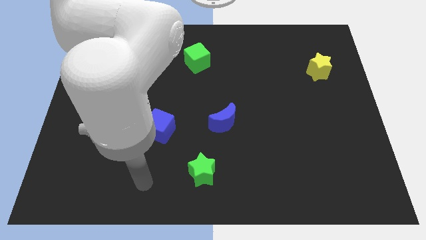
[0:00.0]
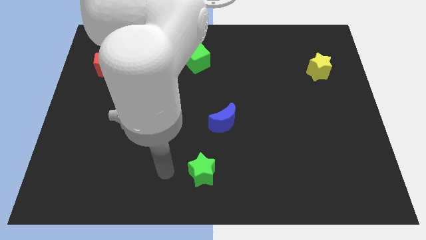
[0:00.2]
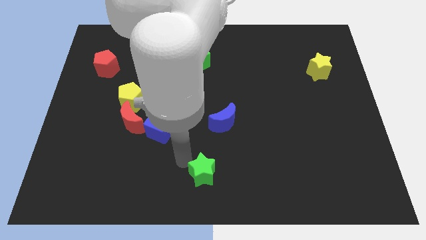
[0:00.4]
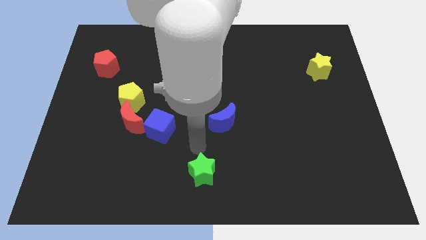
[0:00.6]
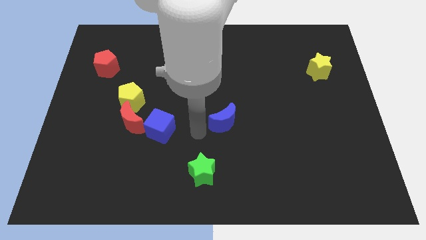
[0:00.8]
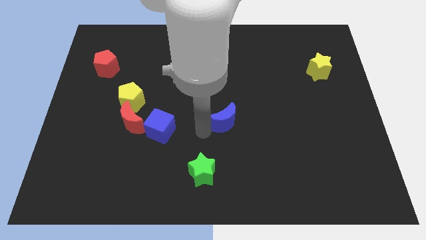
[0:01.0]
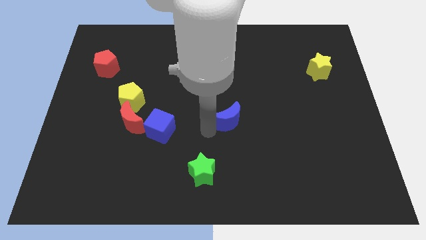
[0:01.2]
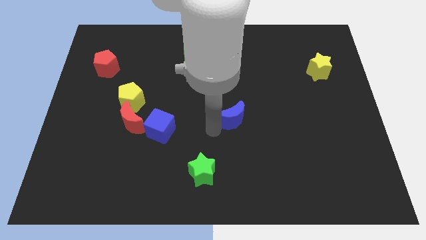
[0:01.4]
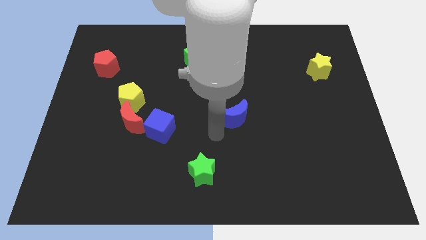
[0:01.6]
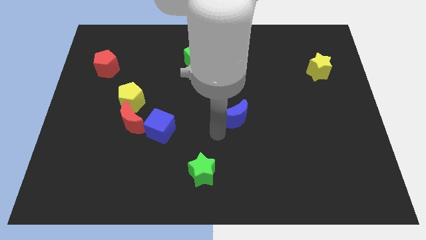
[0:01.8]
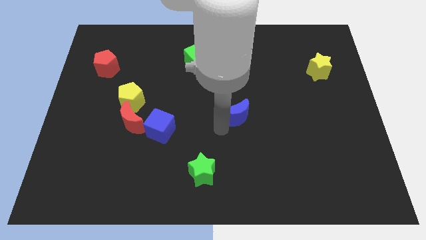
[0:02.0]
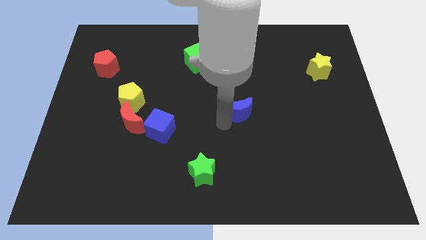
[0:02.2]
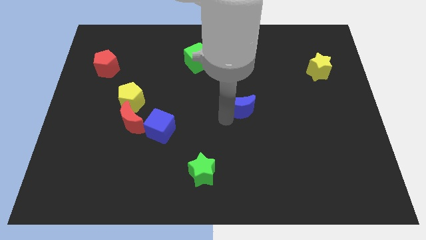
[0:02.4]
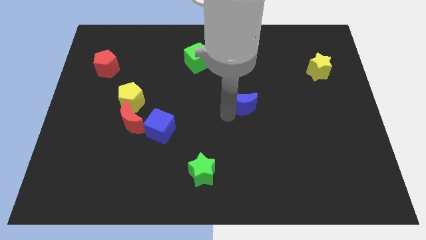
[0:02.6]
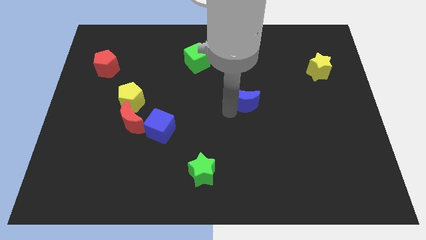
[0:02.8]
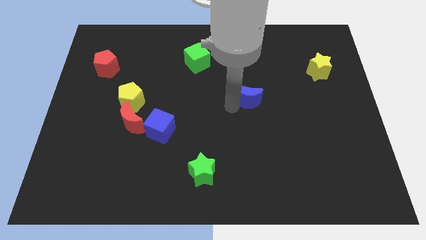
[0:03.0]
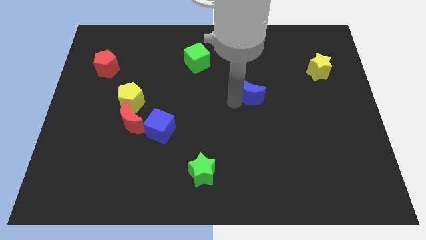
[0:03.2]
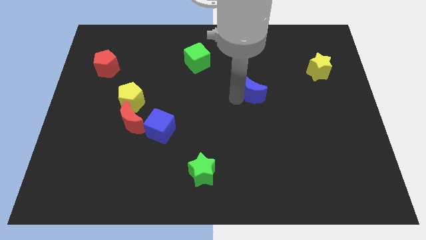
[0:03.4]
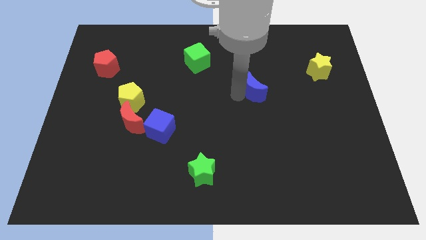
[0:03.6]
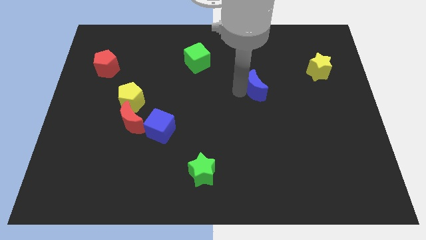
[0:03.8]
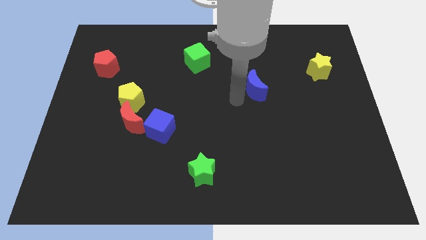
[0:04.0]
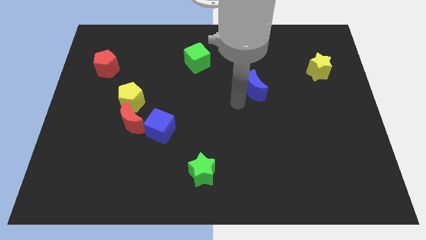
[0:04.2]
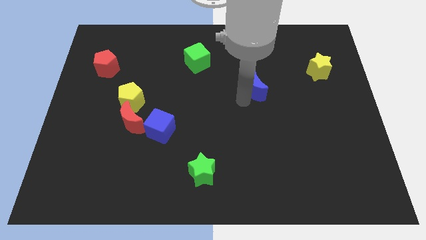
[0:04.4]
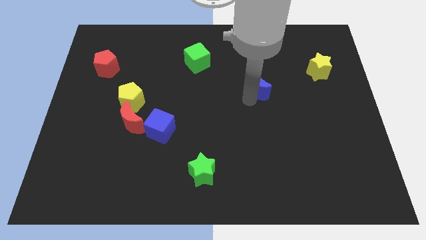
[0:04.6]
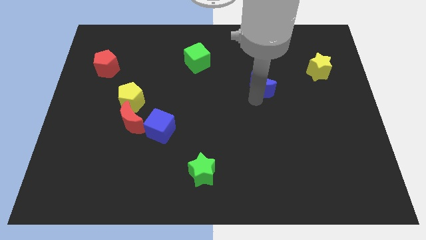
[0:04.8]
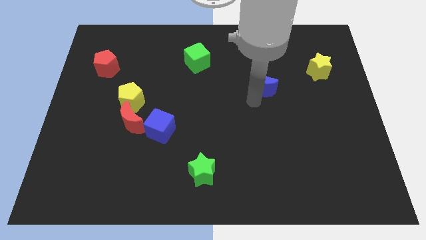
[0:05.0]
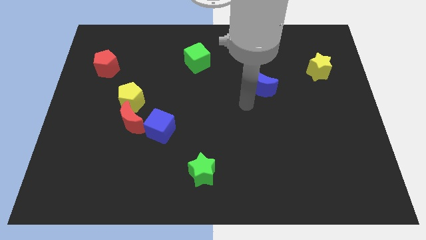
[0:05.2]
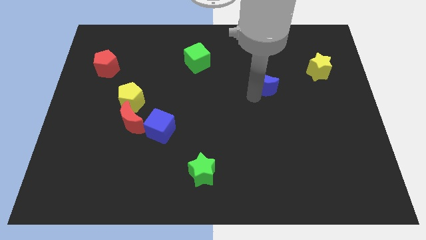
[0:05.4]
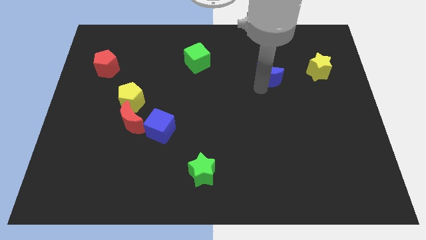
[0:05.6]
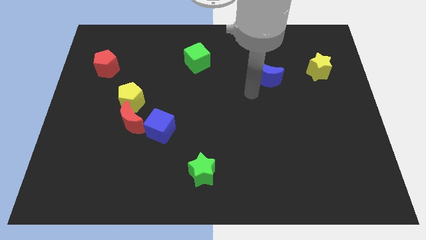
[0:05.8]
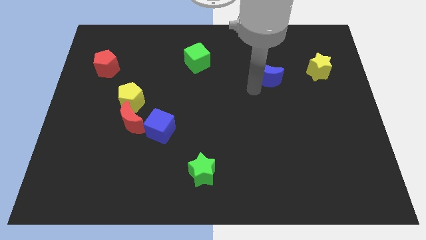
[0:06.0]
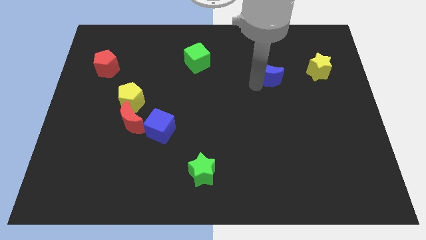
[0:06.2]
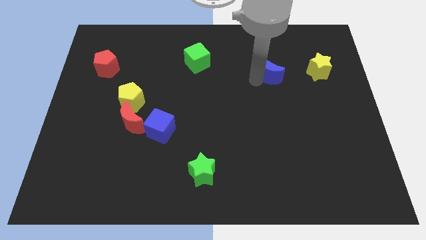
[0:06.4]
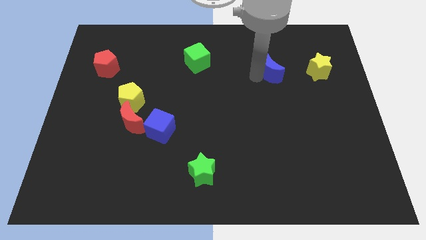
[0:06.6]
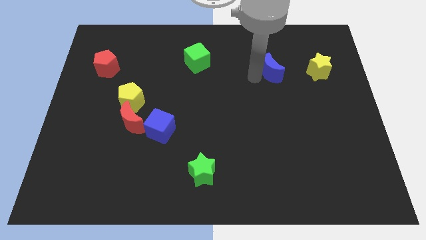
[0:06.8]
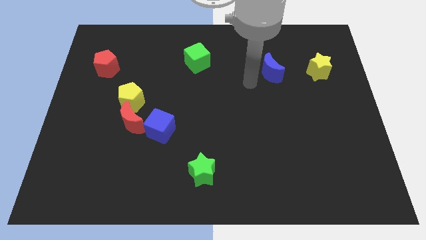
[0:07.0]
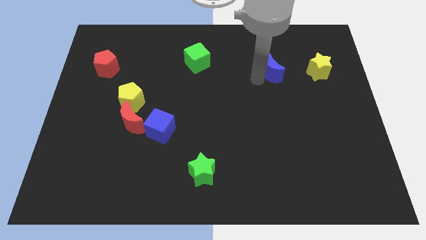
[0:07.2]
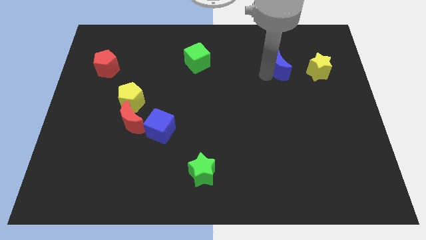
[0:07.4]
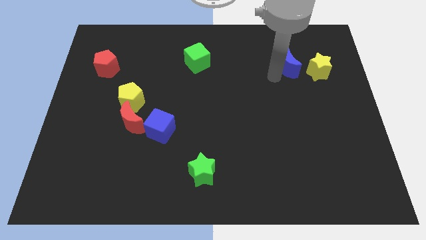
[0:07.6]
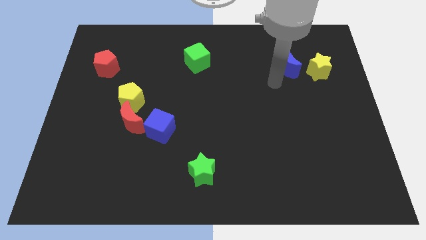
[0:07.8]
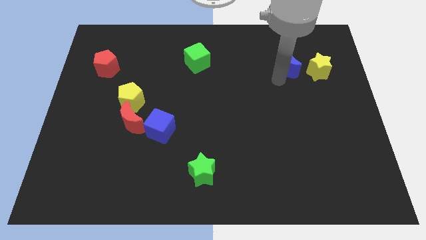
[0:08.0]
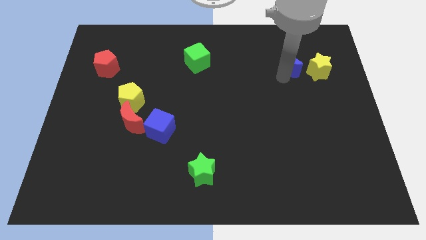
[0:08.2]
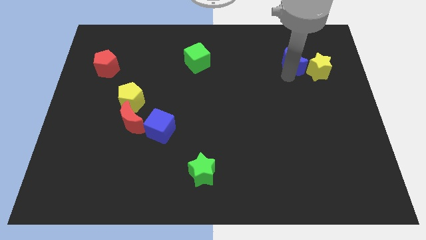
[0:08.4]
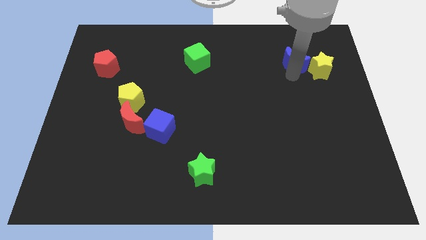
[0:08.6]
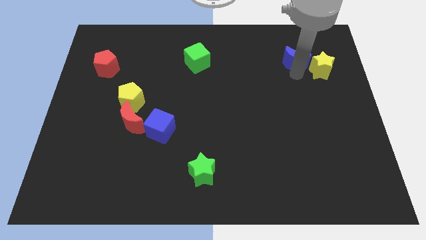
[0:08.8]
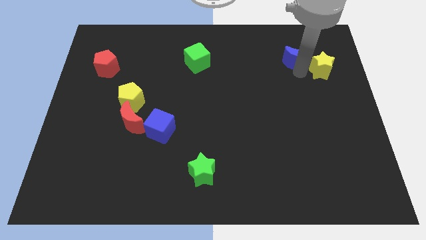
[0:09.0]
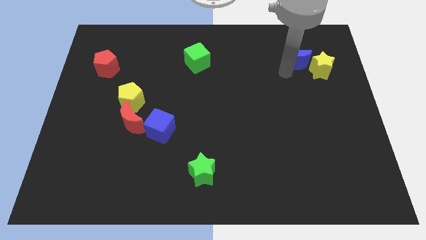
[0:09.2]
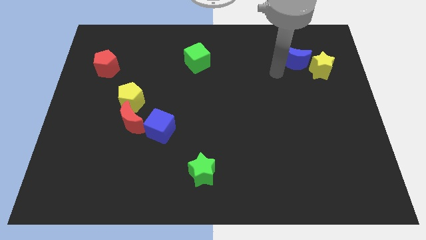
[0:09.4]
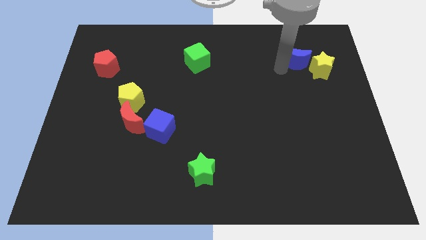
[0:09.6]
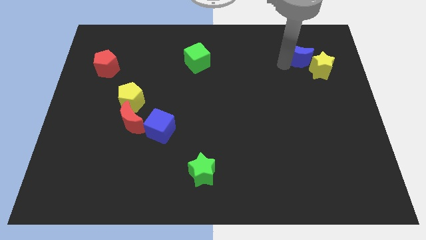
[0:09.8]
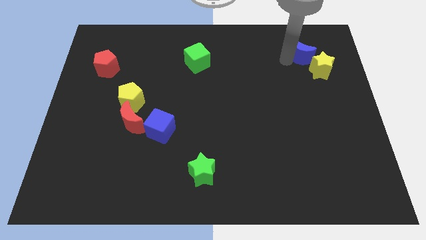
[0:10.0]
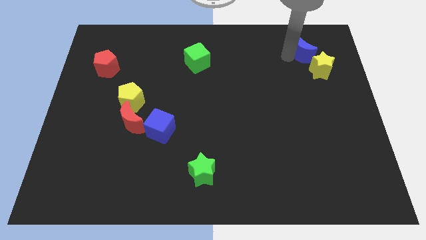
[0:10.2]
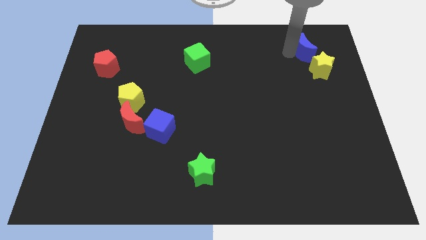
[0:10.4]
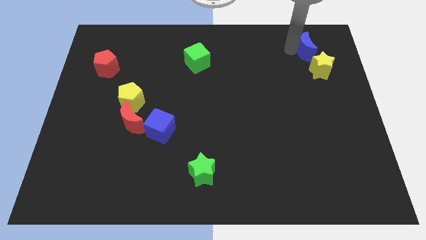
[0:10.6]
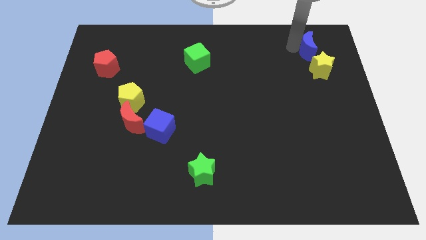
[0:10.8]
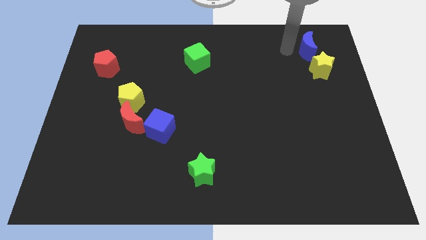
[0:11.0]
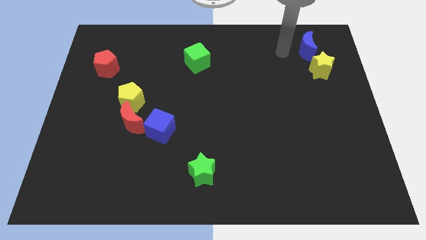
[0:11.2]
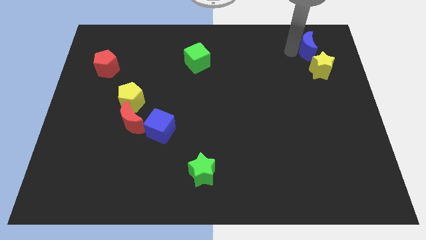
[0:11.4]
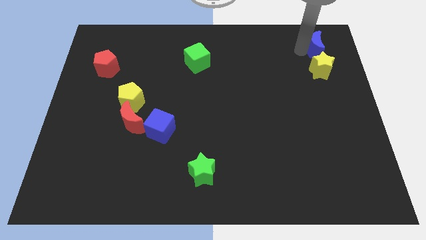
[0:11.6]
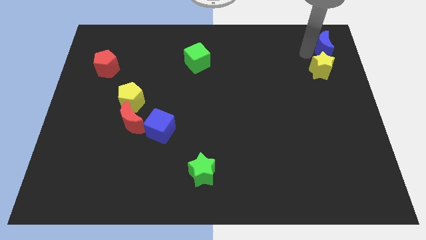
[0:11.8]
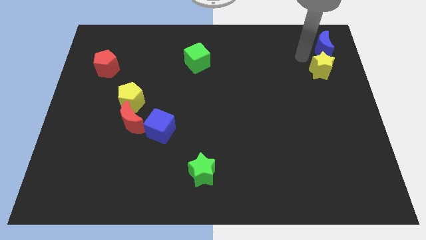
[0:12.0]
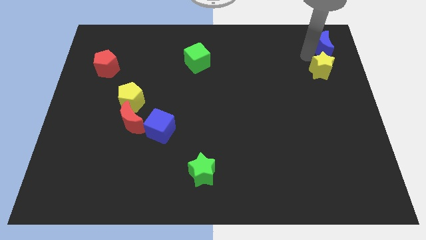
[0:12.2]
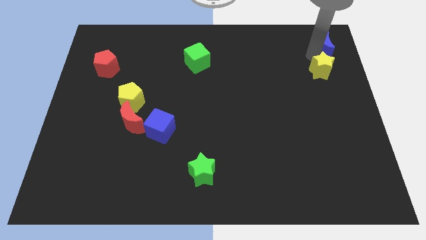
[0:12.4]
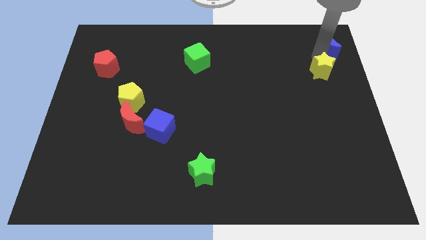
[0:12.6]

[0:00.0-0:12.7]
push the blue moon to the top right corner

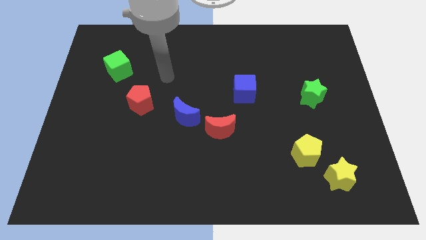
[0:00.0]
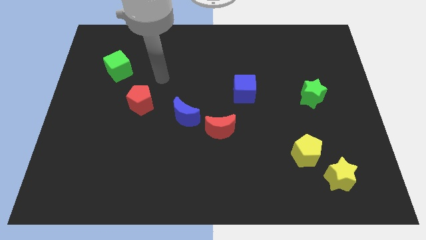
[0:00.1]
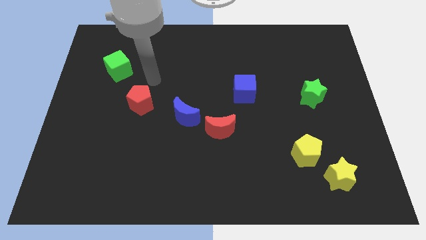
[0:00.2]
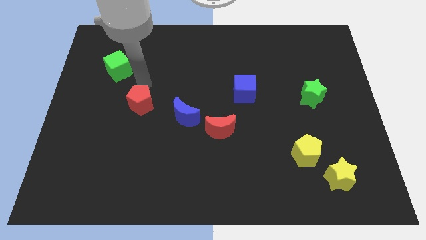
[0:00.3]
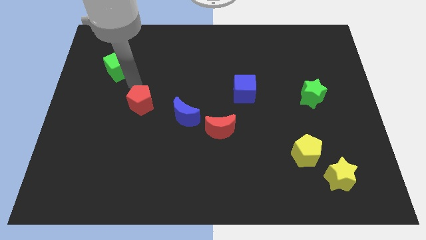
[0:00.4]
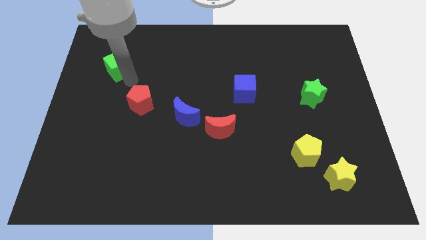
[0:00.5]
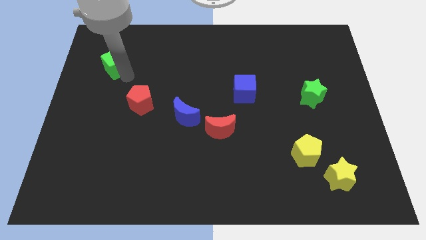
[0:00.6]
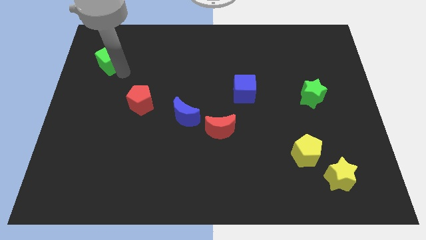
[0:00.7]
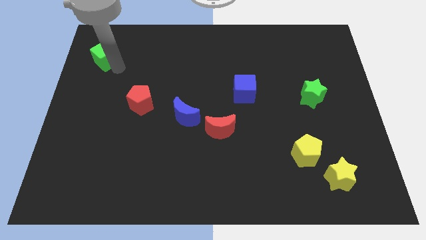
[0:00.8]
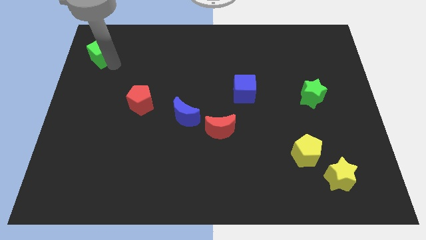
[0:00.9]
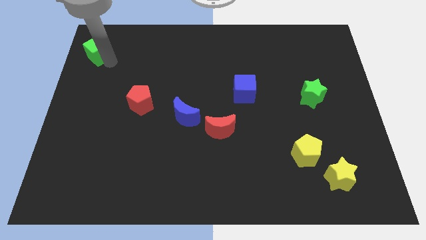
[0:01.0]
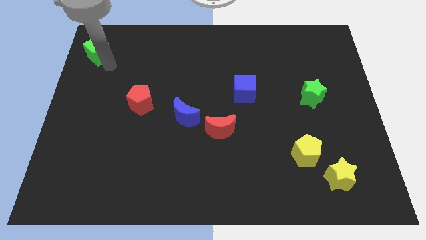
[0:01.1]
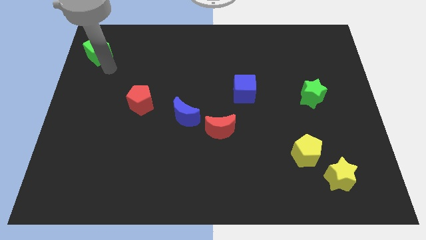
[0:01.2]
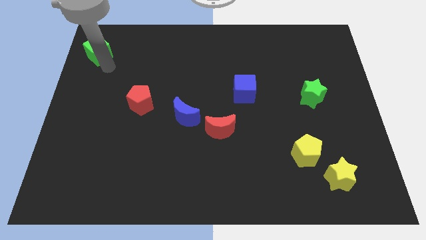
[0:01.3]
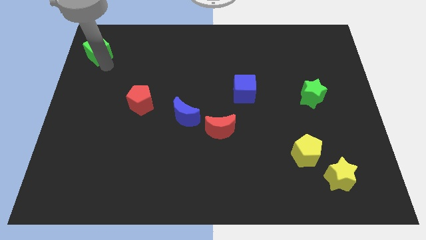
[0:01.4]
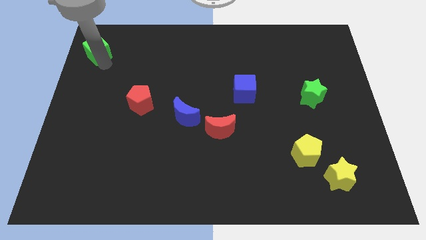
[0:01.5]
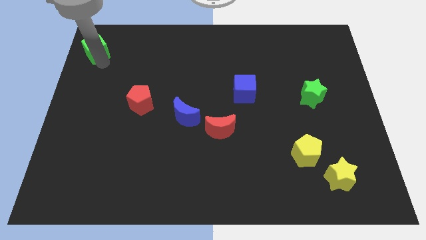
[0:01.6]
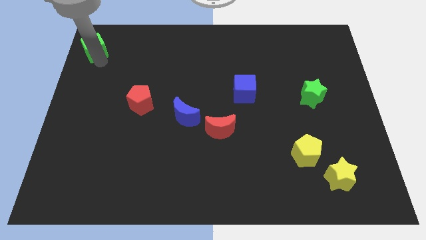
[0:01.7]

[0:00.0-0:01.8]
slide the green cube to the upper left corner
